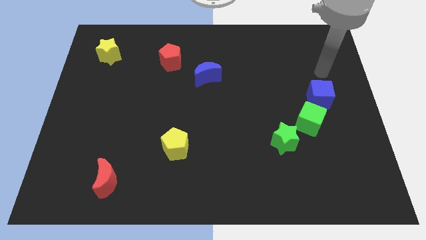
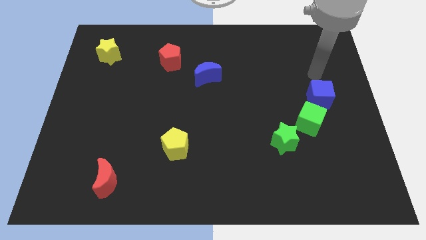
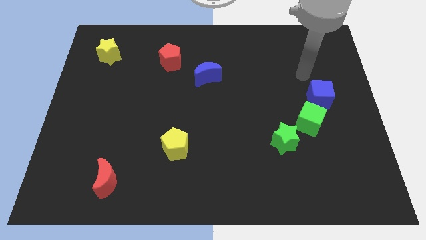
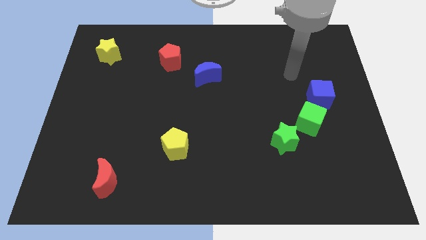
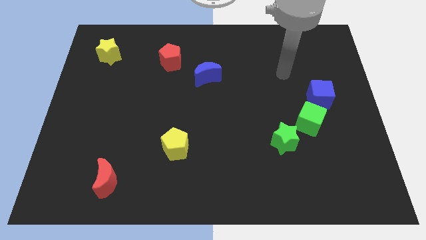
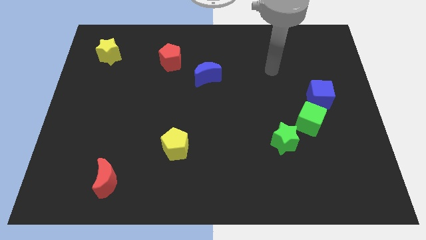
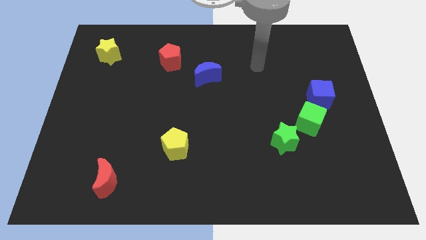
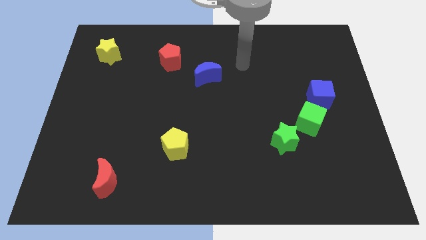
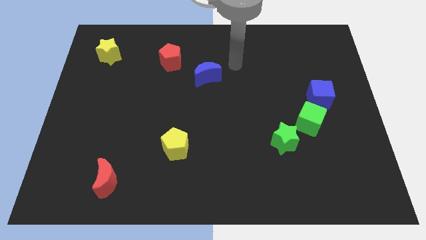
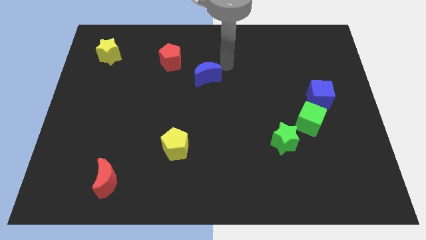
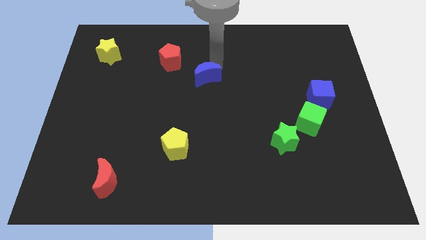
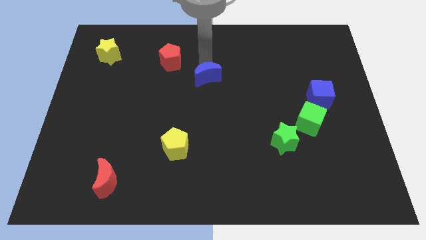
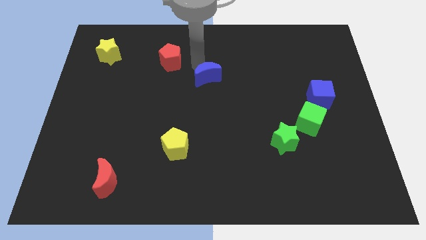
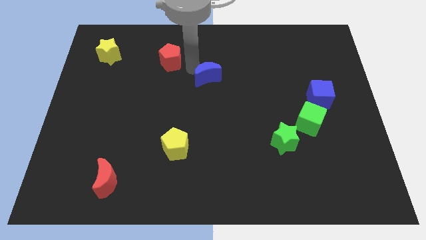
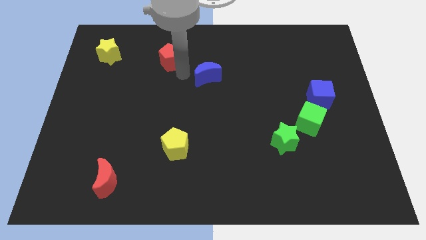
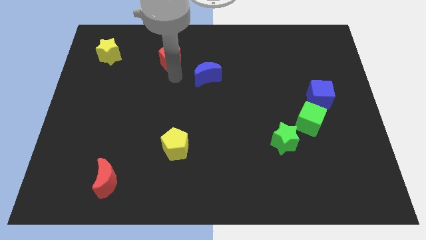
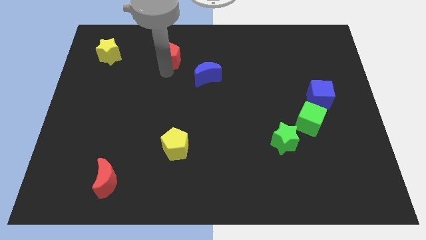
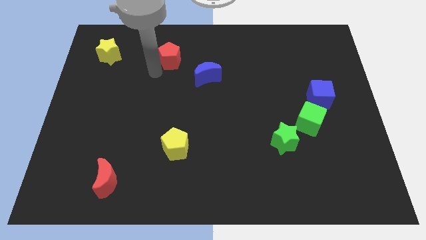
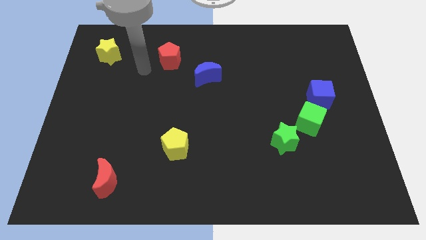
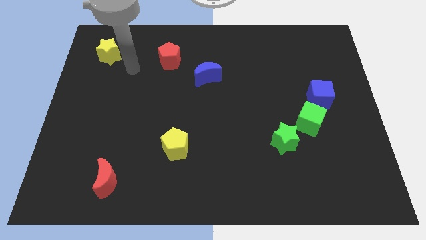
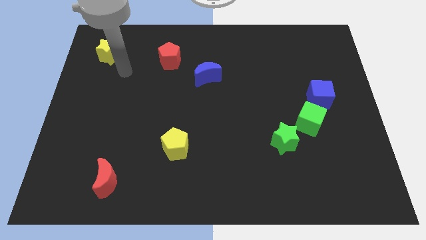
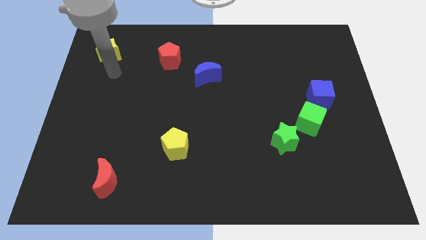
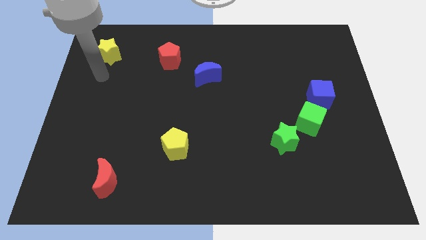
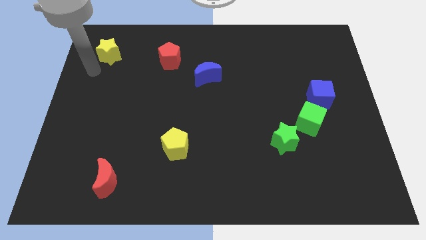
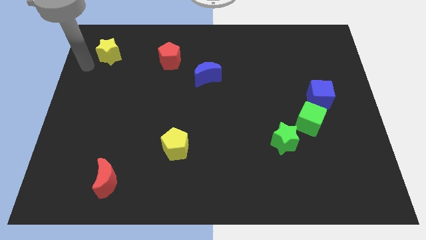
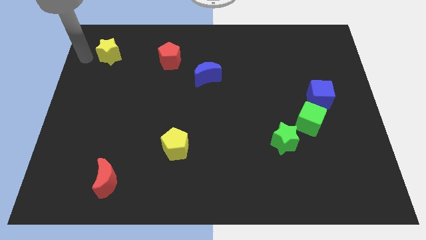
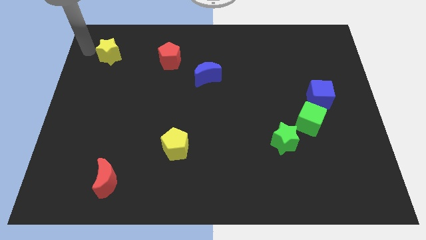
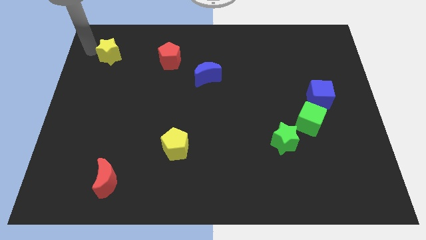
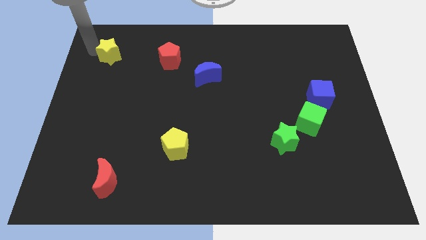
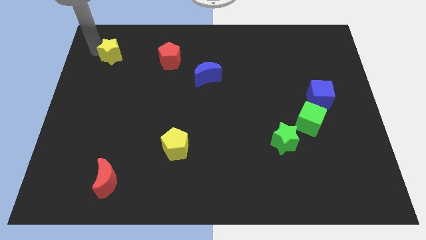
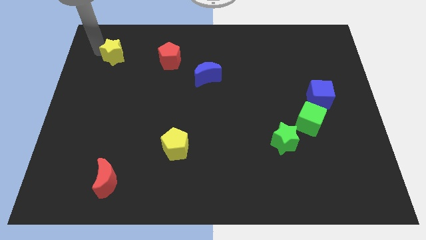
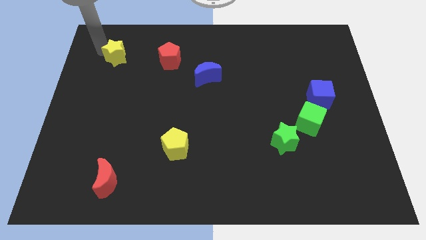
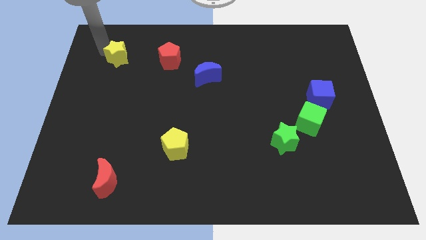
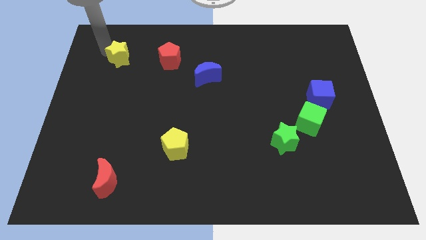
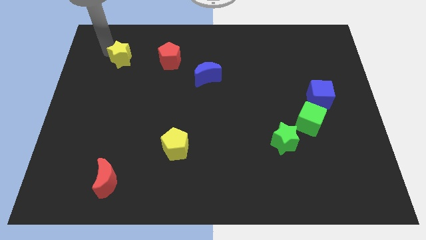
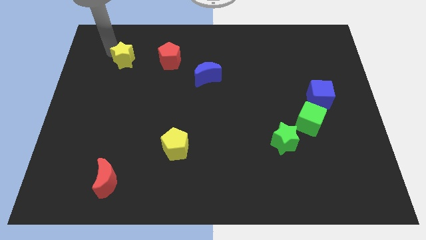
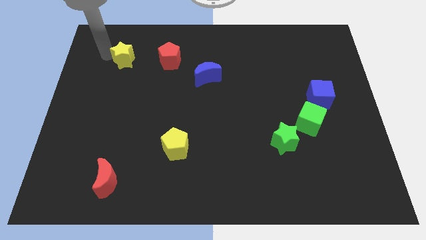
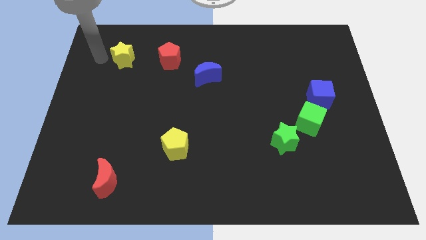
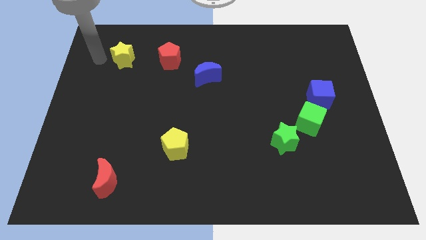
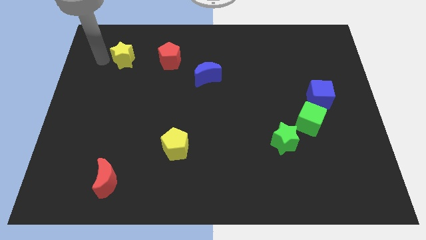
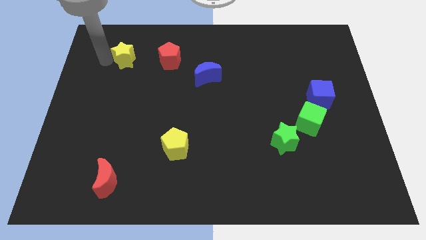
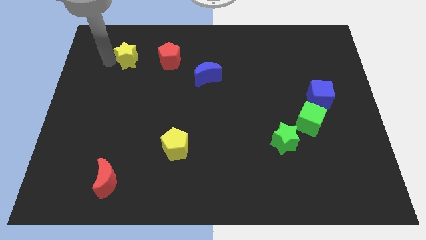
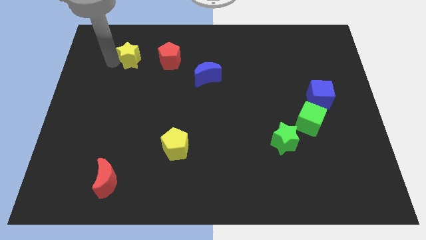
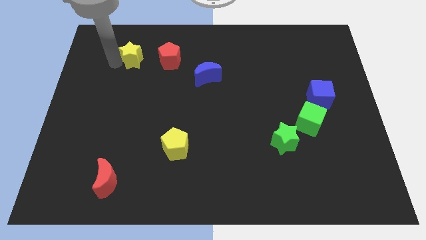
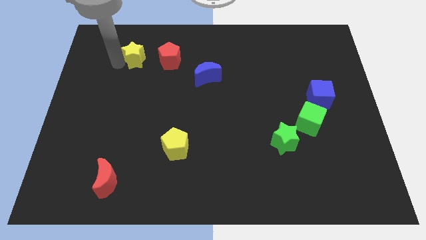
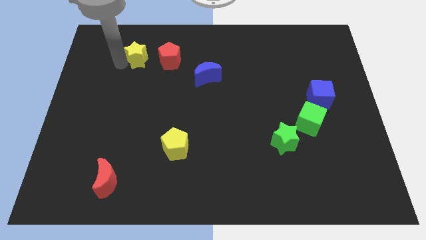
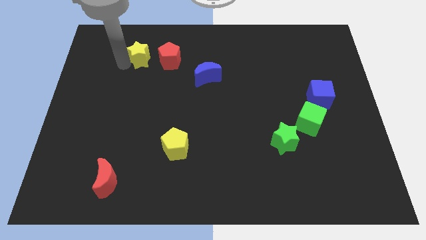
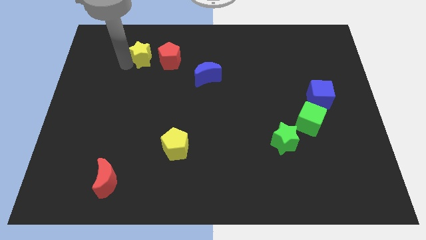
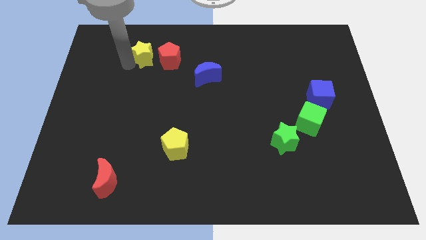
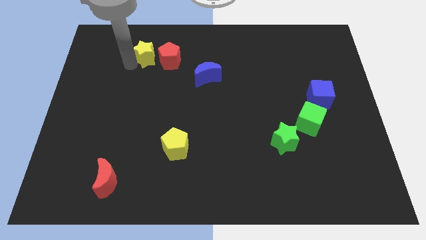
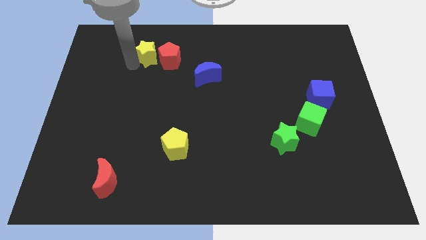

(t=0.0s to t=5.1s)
move the yellow star to the red pentagon

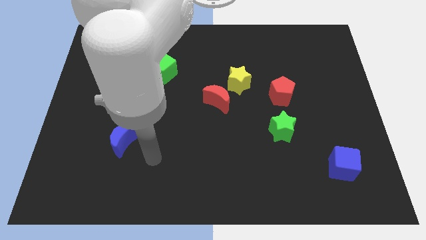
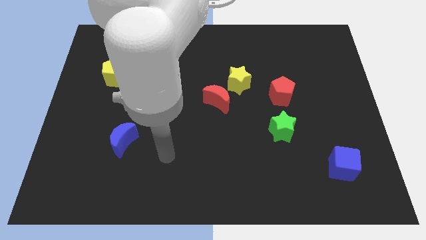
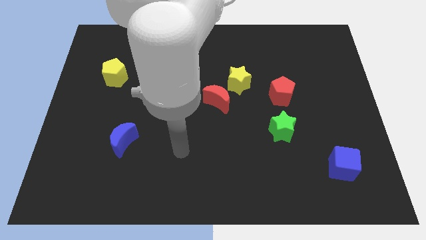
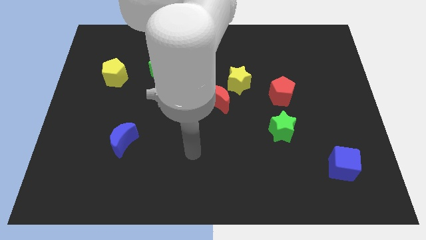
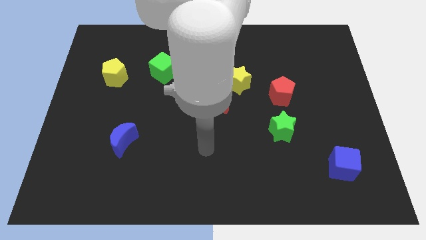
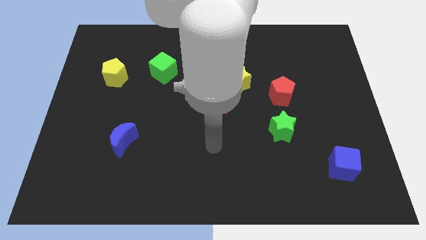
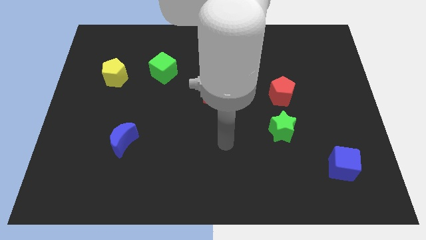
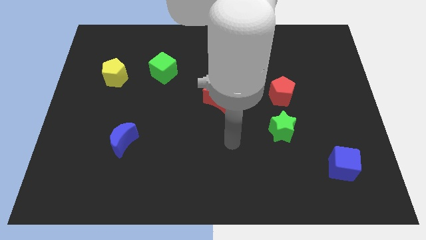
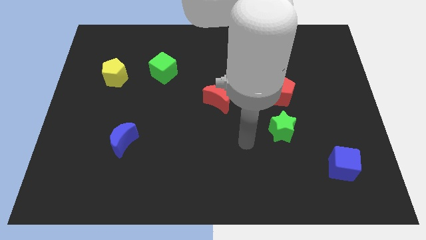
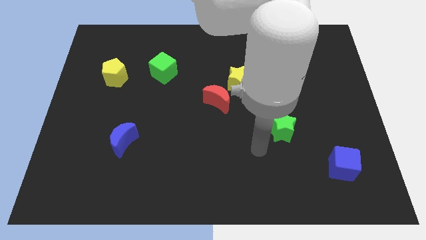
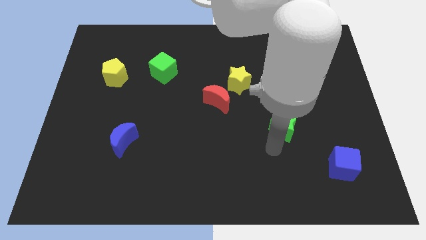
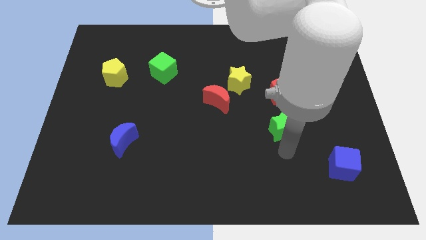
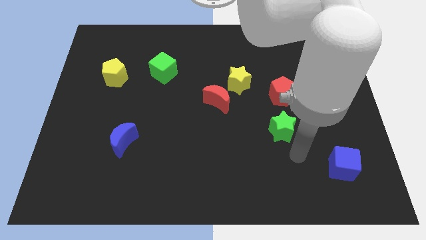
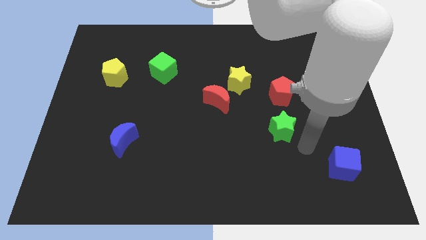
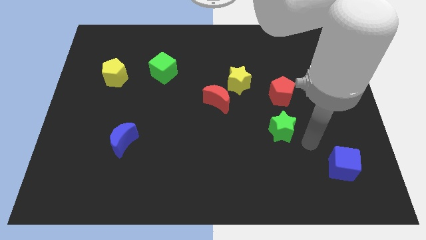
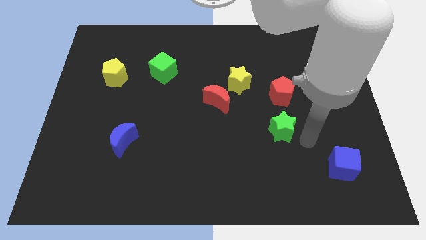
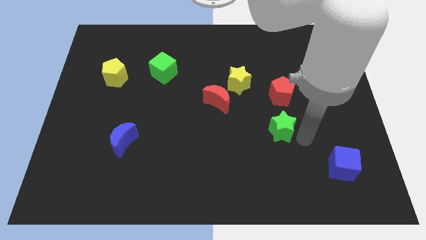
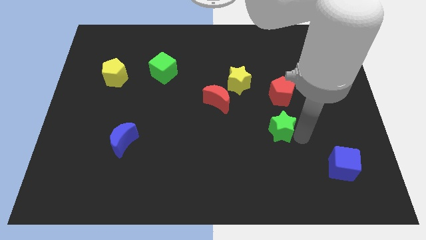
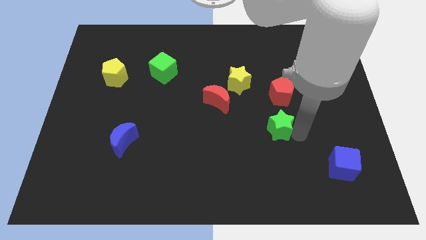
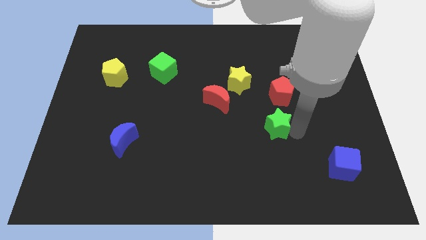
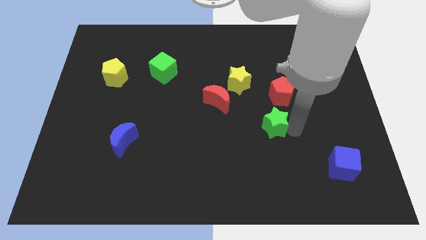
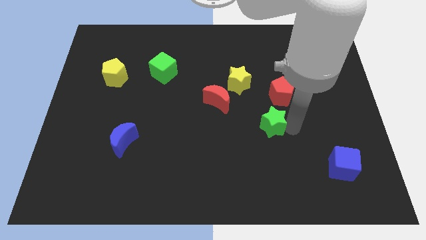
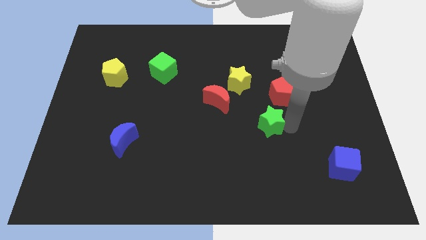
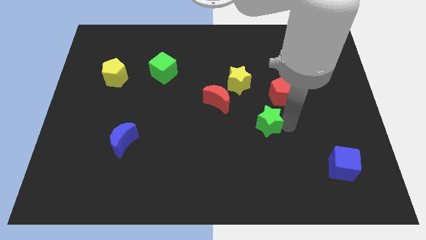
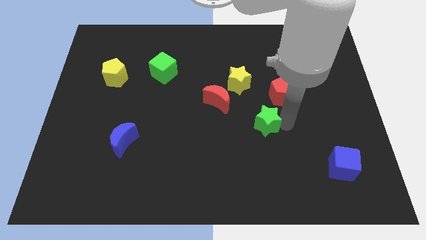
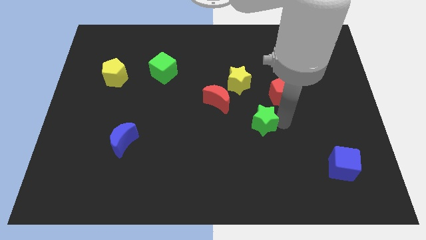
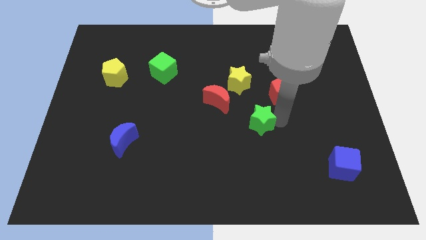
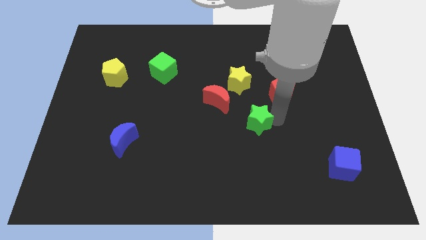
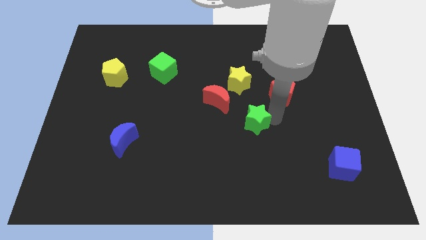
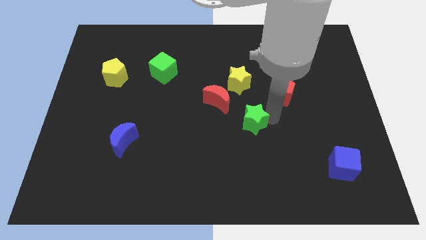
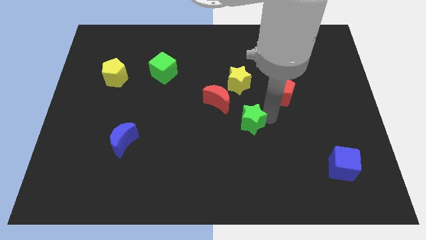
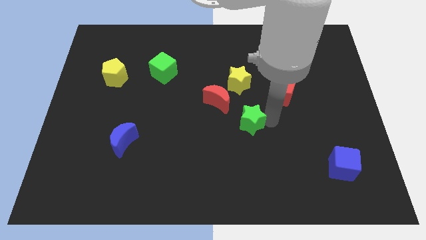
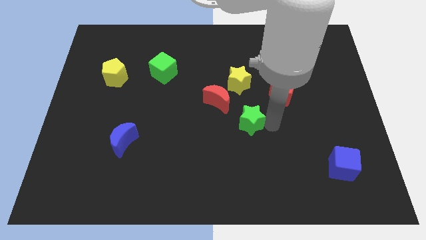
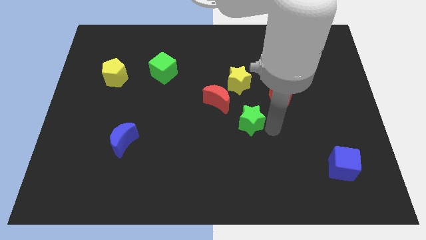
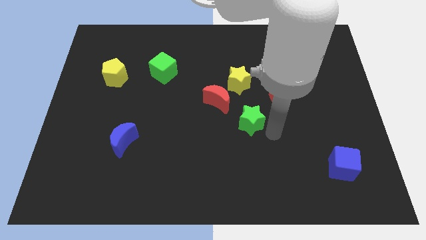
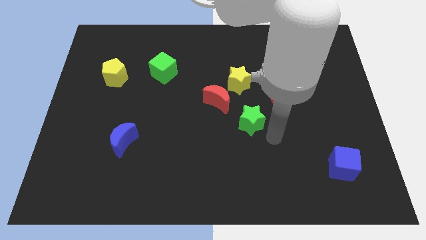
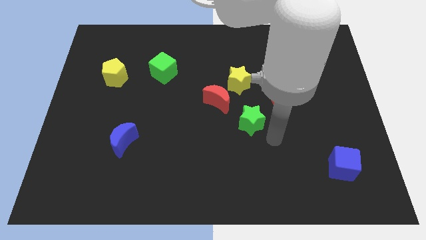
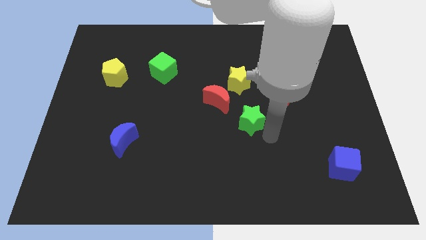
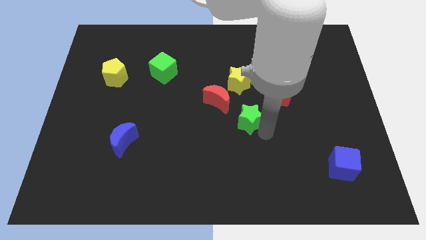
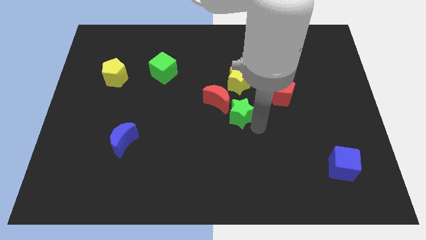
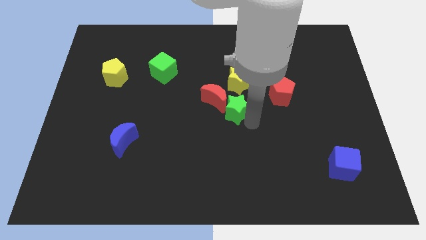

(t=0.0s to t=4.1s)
slide the green star next to the red moon
